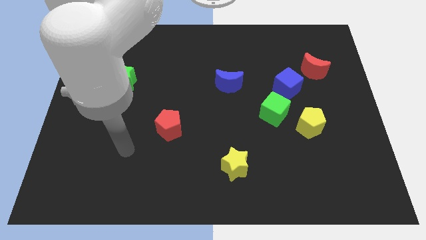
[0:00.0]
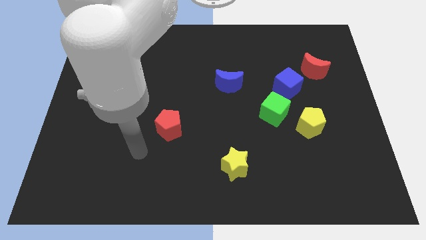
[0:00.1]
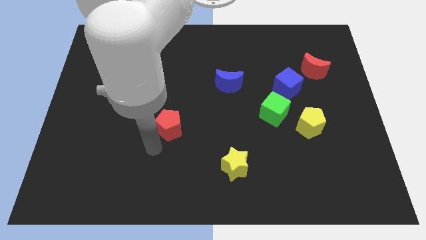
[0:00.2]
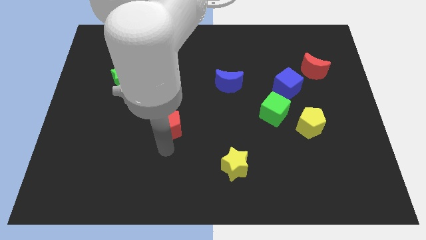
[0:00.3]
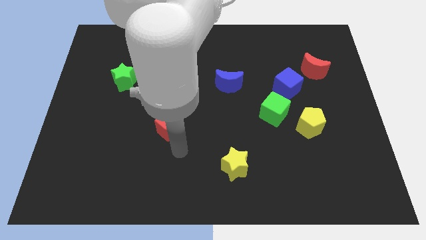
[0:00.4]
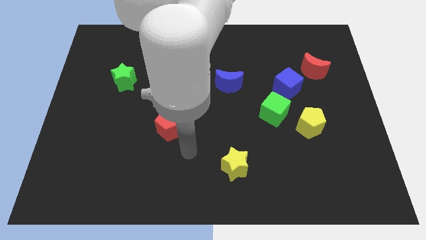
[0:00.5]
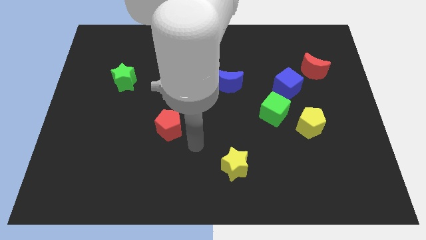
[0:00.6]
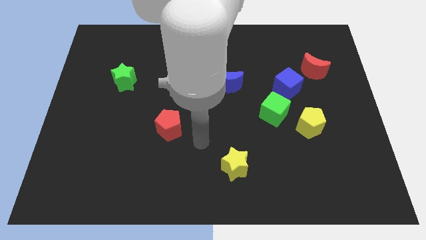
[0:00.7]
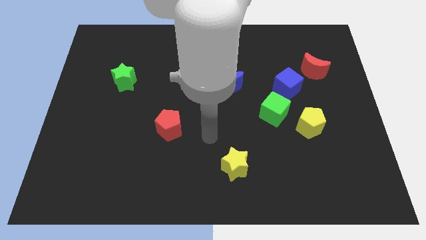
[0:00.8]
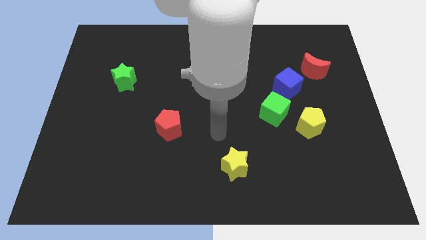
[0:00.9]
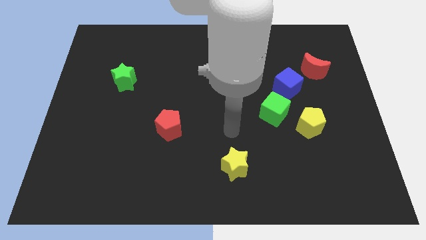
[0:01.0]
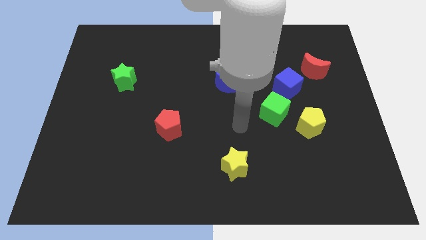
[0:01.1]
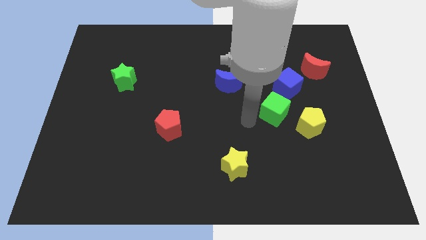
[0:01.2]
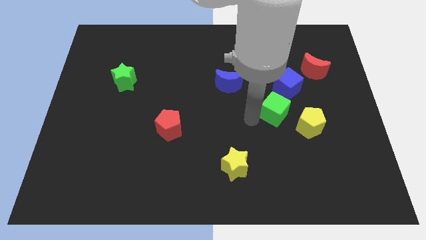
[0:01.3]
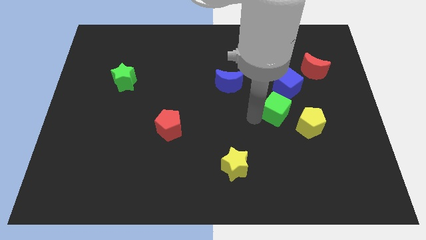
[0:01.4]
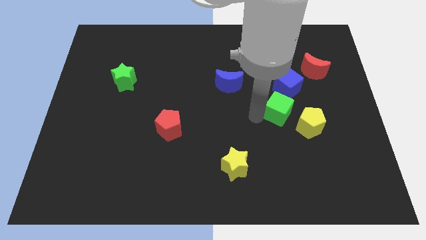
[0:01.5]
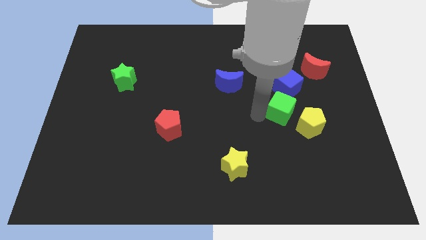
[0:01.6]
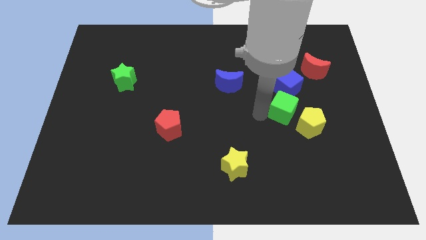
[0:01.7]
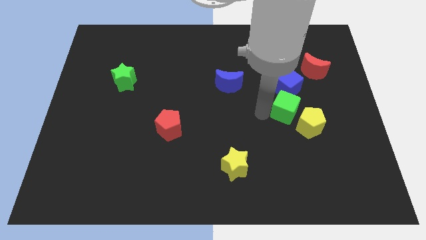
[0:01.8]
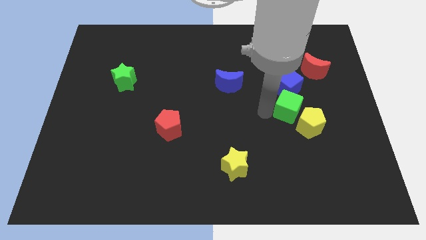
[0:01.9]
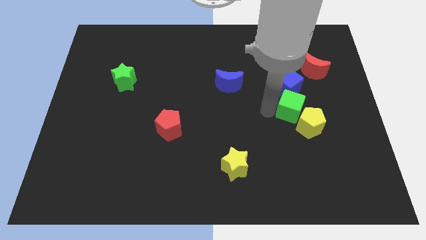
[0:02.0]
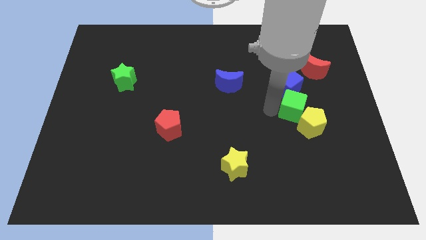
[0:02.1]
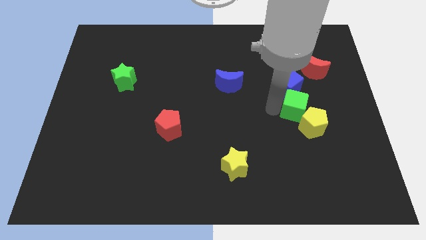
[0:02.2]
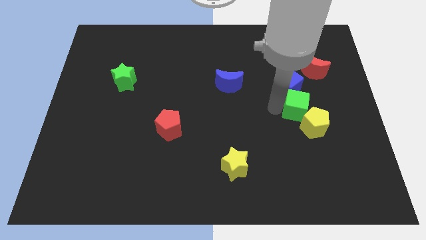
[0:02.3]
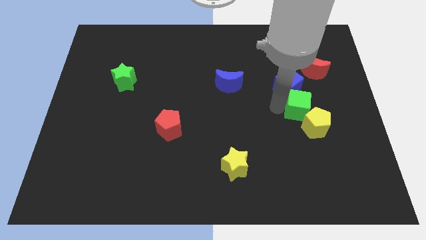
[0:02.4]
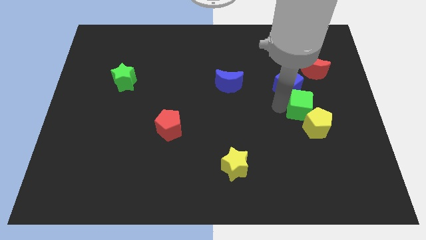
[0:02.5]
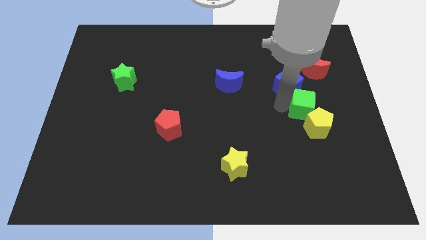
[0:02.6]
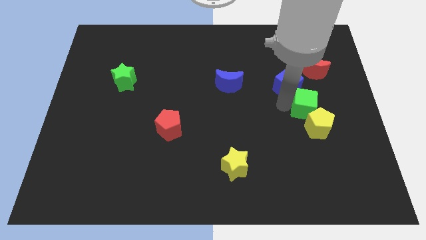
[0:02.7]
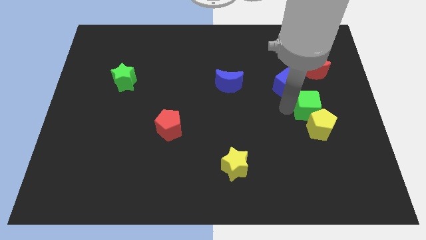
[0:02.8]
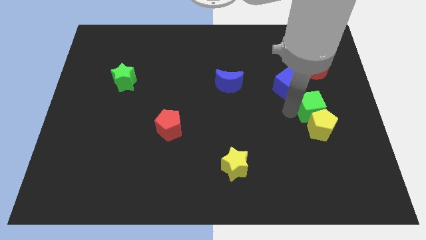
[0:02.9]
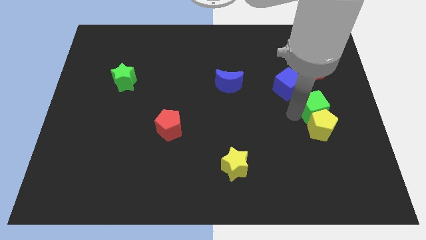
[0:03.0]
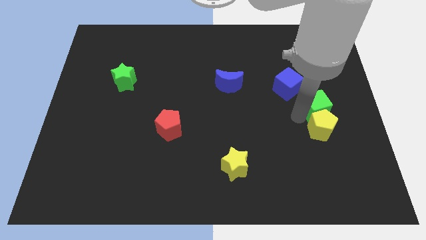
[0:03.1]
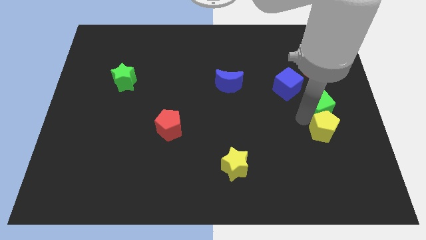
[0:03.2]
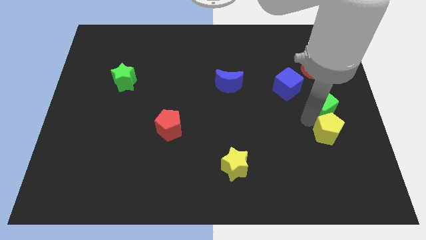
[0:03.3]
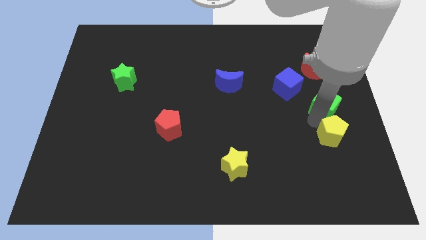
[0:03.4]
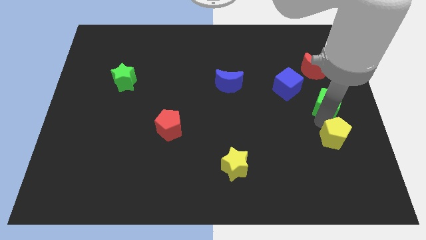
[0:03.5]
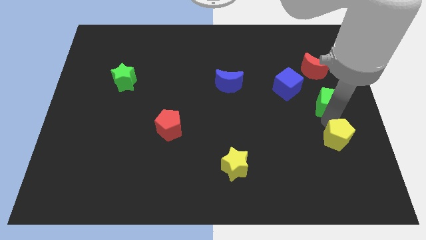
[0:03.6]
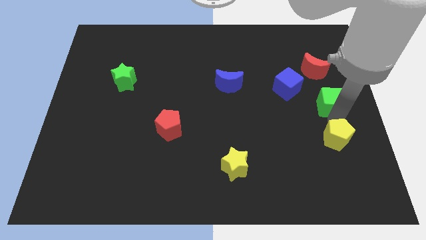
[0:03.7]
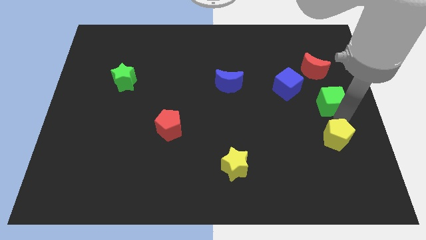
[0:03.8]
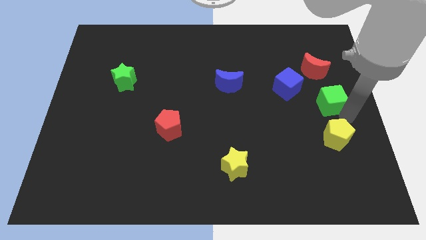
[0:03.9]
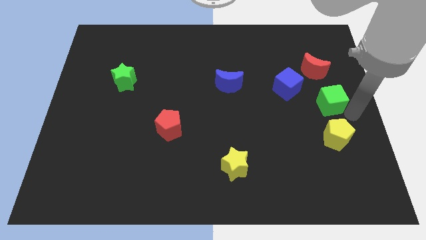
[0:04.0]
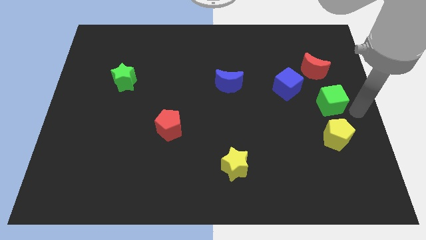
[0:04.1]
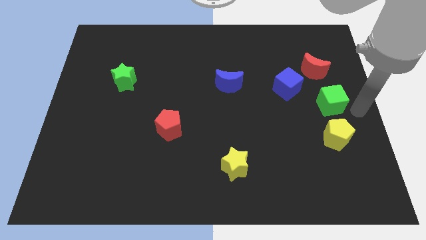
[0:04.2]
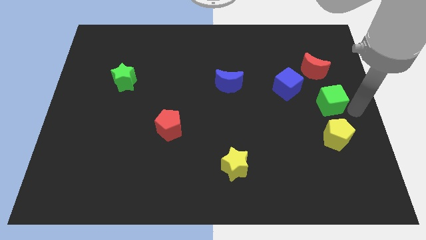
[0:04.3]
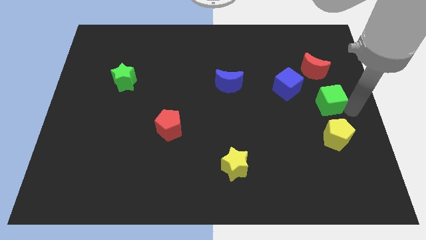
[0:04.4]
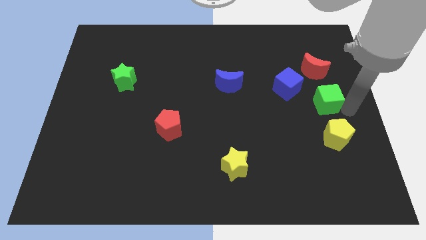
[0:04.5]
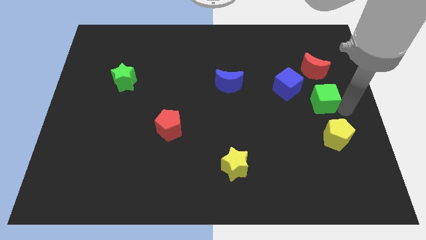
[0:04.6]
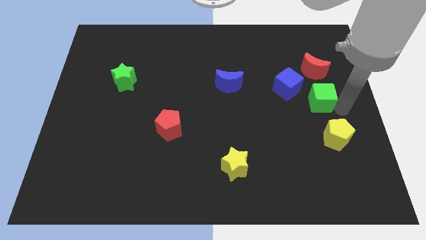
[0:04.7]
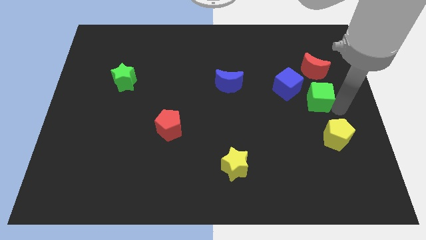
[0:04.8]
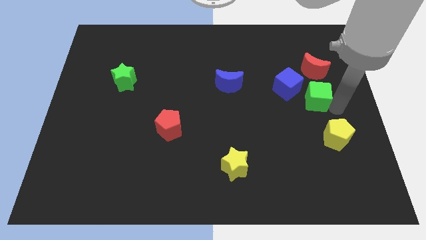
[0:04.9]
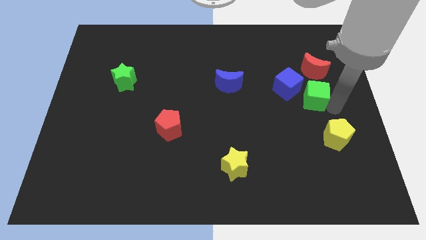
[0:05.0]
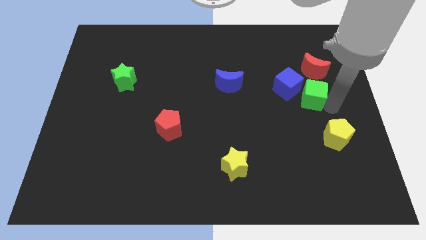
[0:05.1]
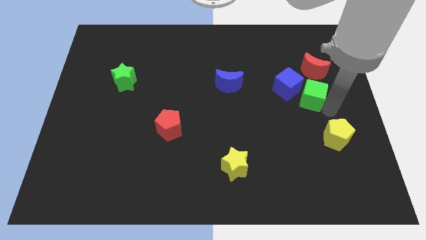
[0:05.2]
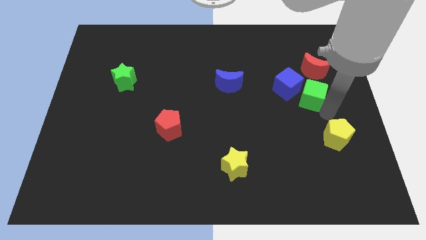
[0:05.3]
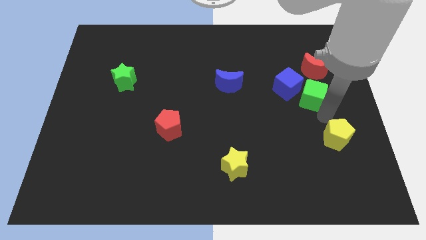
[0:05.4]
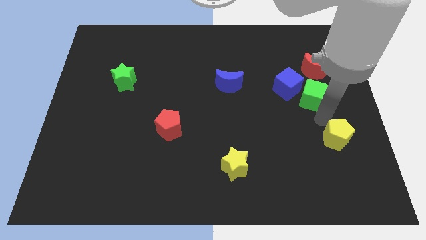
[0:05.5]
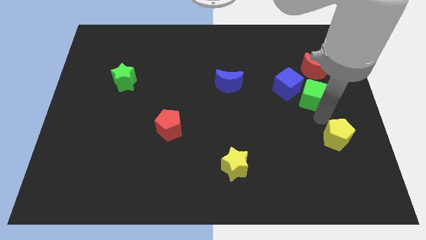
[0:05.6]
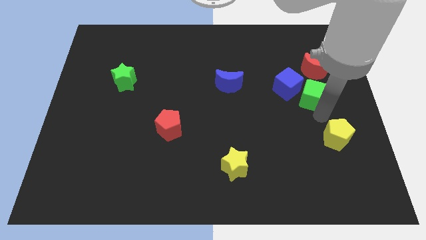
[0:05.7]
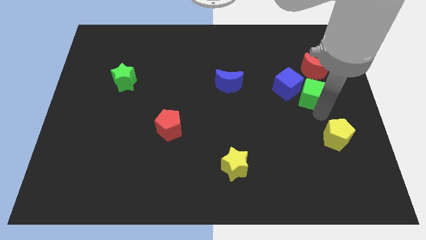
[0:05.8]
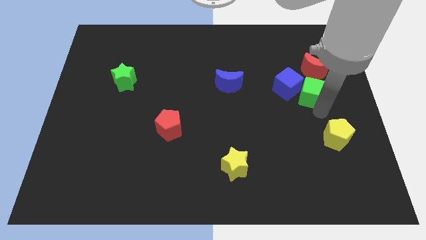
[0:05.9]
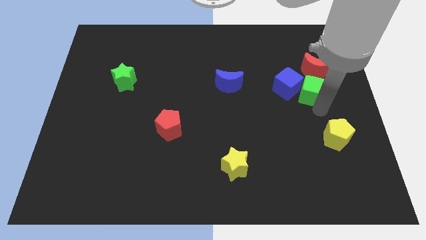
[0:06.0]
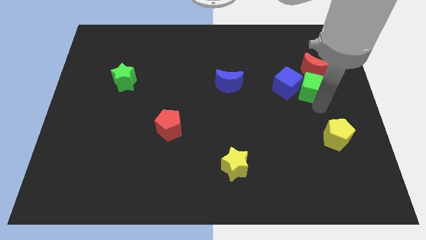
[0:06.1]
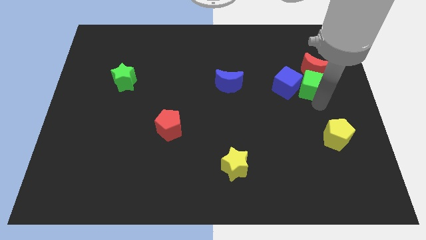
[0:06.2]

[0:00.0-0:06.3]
put the green cube towards the red moon
